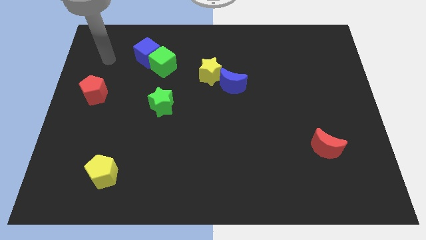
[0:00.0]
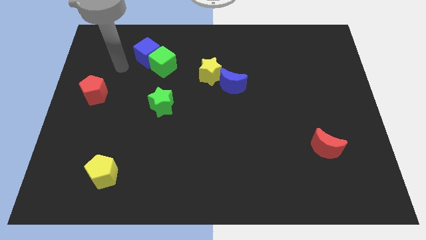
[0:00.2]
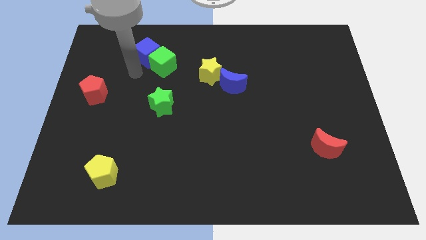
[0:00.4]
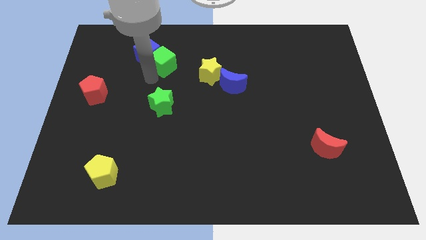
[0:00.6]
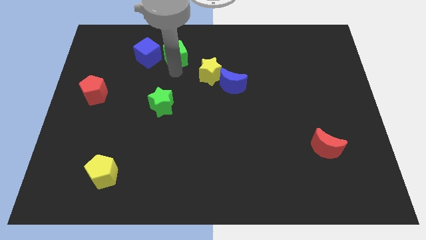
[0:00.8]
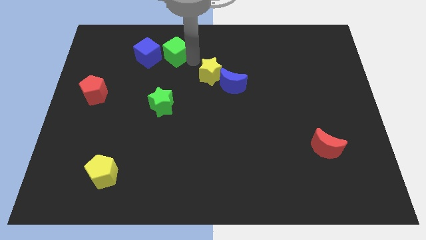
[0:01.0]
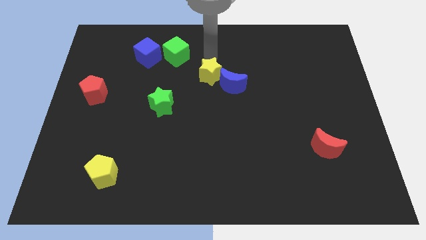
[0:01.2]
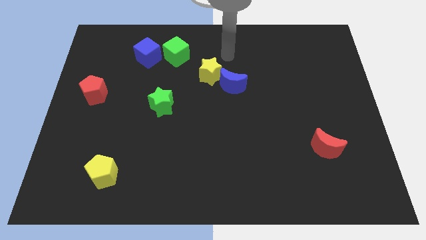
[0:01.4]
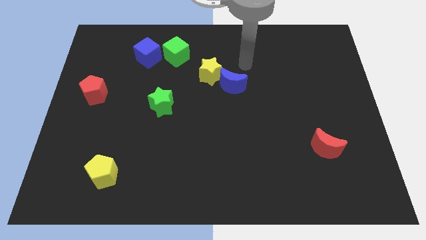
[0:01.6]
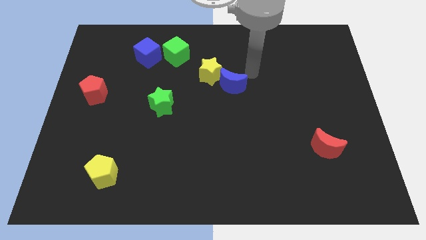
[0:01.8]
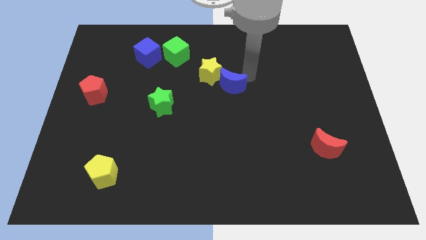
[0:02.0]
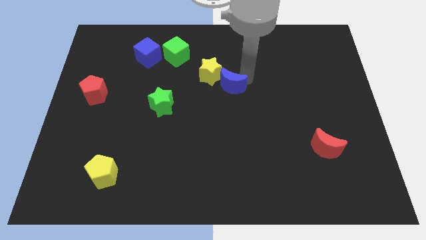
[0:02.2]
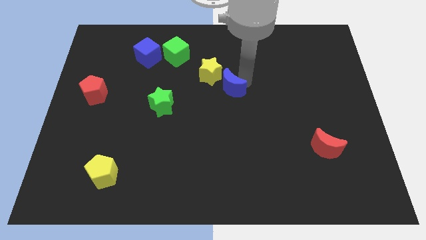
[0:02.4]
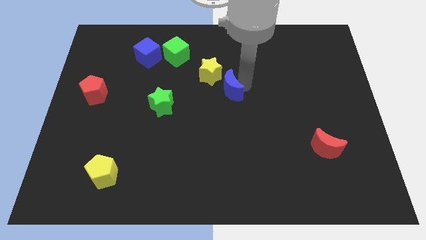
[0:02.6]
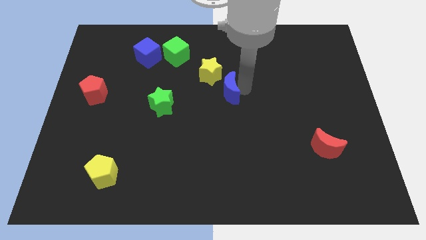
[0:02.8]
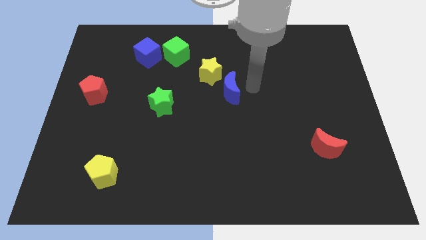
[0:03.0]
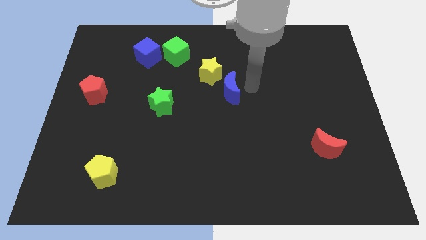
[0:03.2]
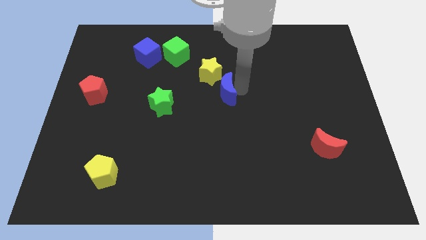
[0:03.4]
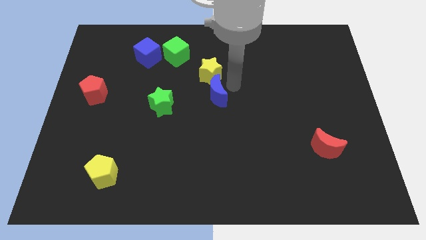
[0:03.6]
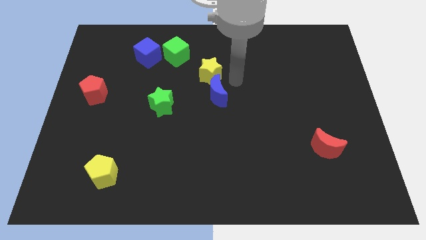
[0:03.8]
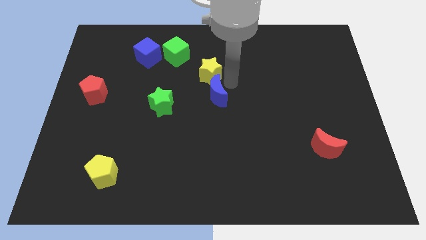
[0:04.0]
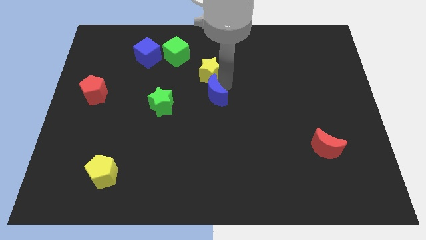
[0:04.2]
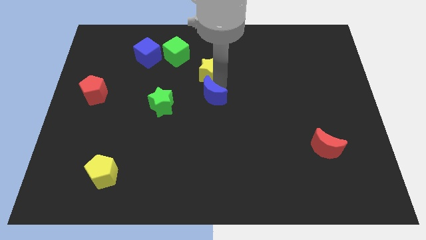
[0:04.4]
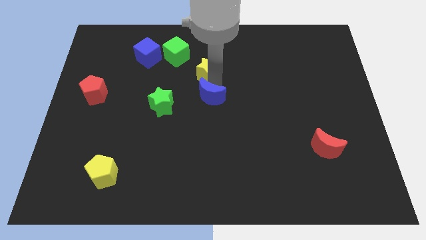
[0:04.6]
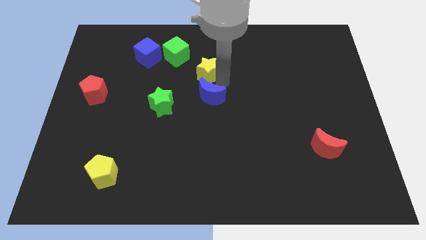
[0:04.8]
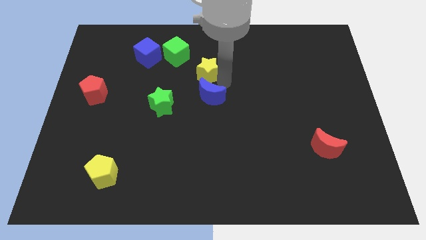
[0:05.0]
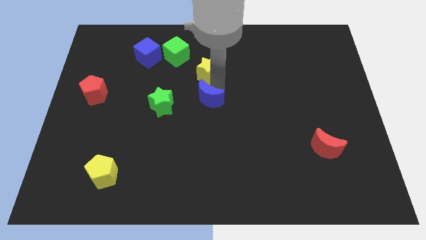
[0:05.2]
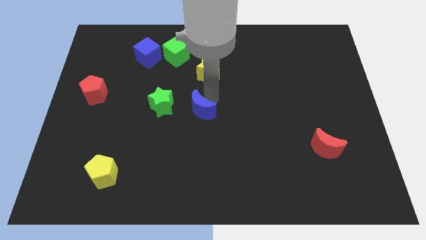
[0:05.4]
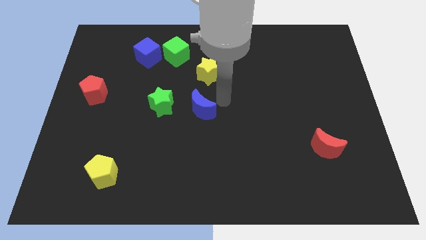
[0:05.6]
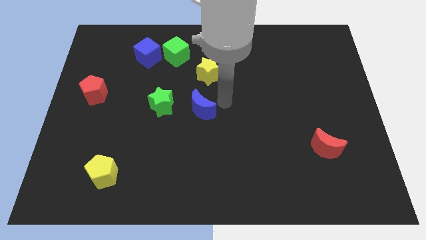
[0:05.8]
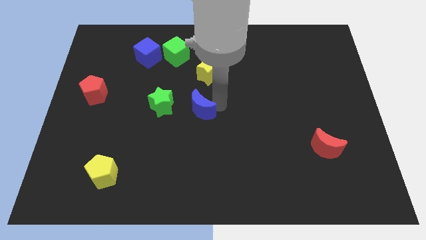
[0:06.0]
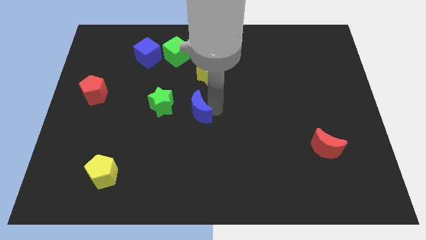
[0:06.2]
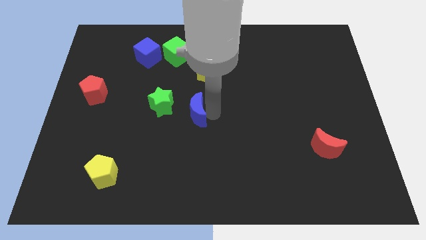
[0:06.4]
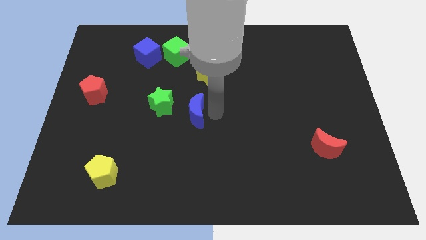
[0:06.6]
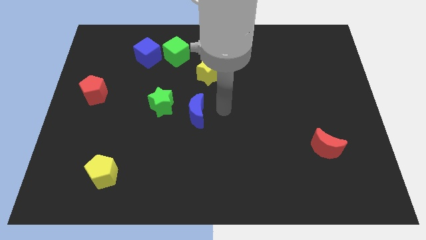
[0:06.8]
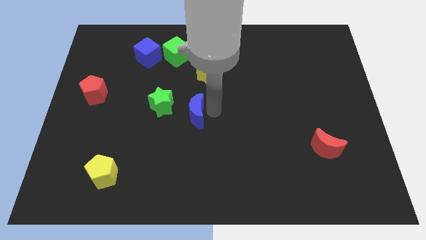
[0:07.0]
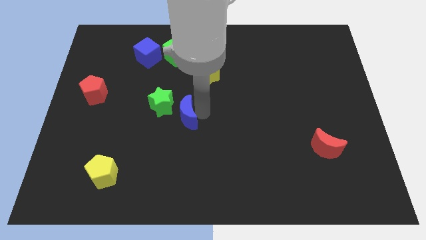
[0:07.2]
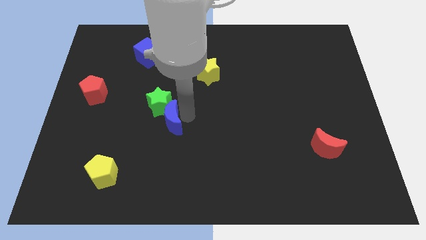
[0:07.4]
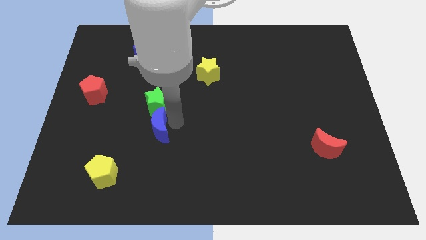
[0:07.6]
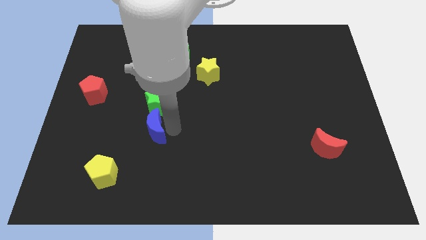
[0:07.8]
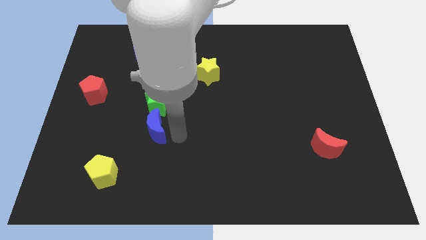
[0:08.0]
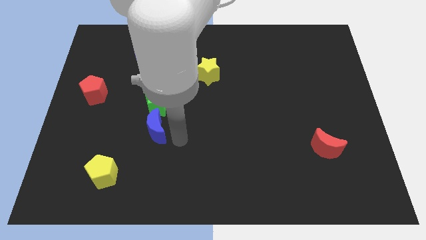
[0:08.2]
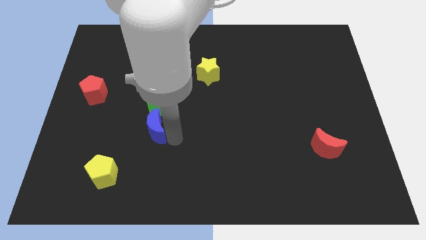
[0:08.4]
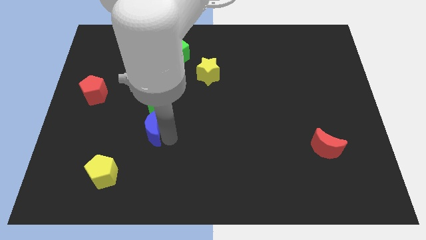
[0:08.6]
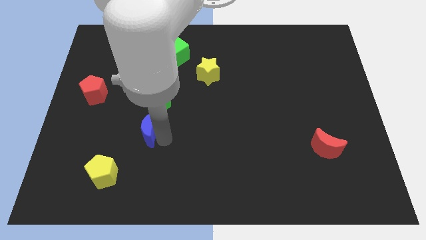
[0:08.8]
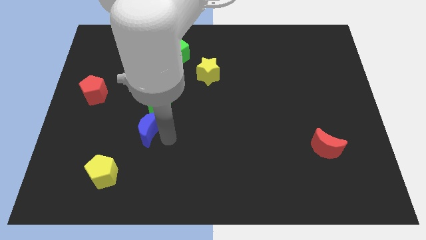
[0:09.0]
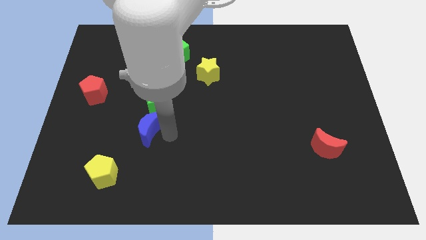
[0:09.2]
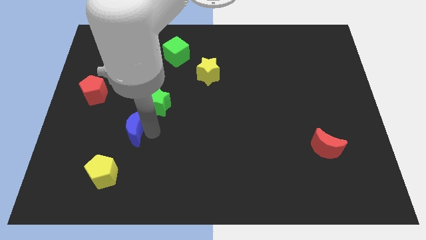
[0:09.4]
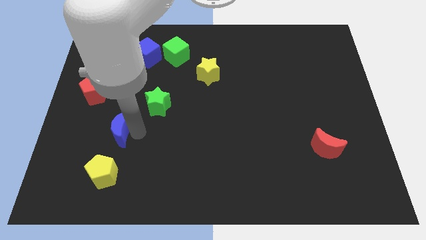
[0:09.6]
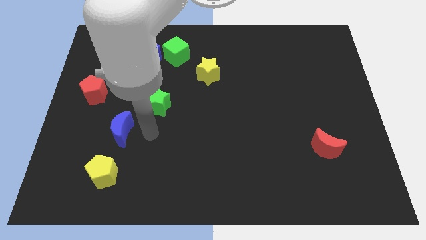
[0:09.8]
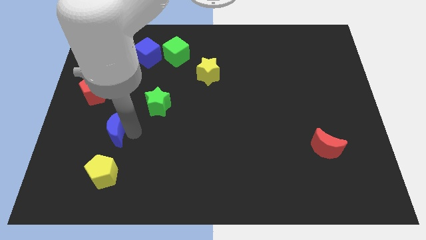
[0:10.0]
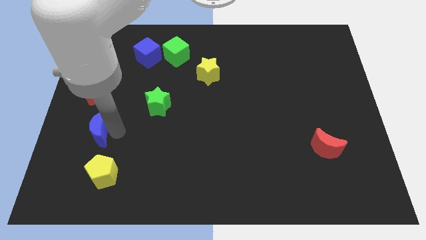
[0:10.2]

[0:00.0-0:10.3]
slide the blue moon to the bottom side of the red pentagon

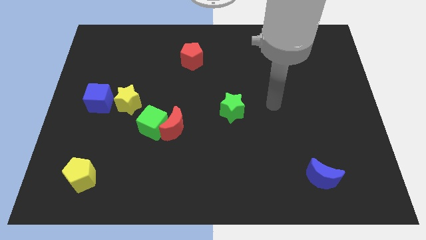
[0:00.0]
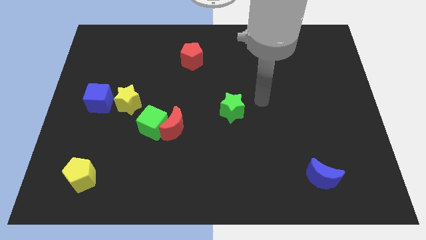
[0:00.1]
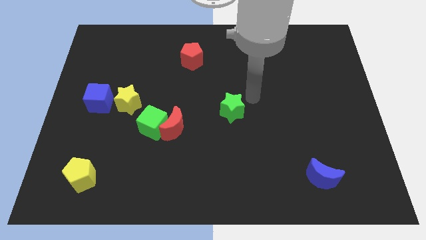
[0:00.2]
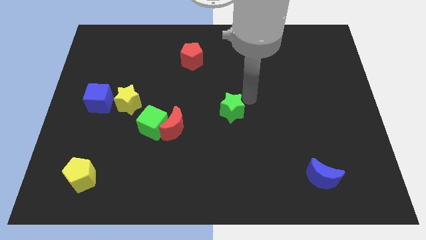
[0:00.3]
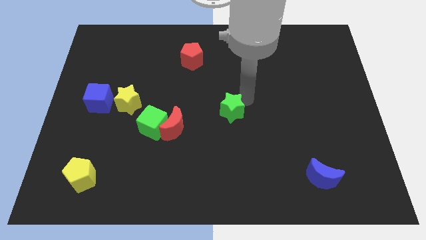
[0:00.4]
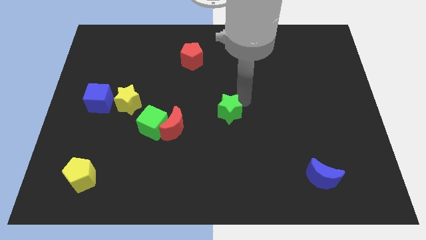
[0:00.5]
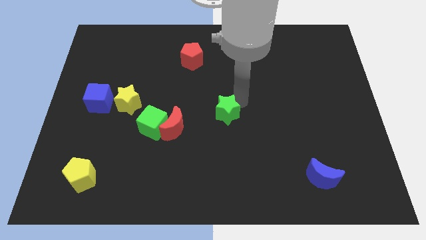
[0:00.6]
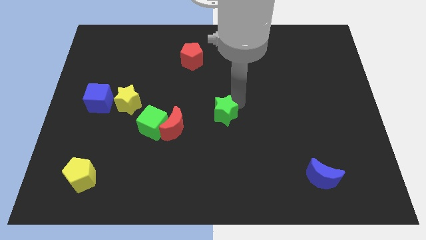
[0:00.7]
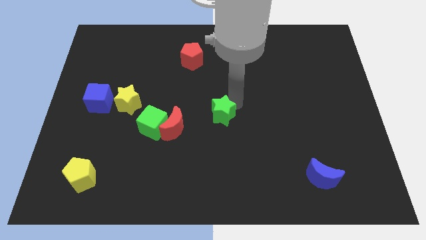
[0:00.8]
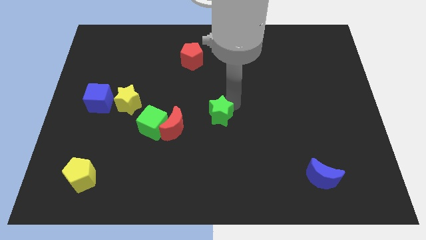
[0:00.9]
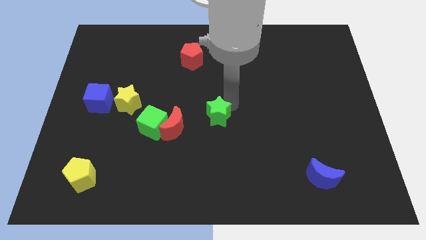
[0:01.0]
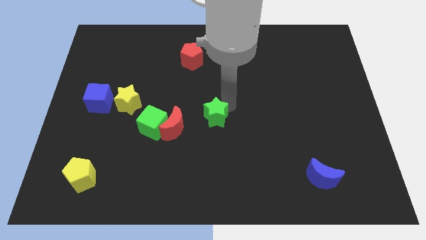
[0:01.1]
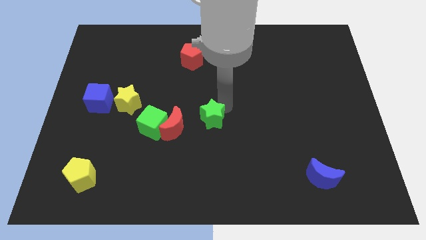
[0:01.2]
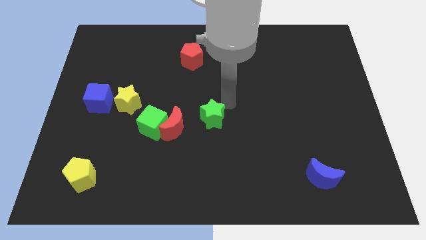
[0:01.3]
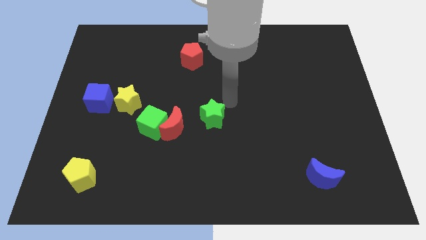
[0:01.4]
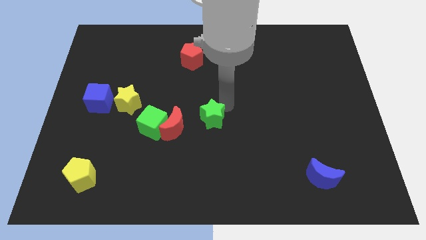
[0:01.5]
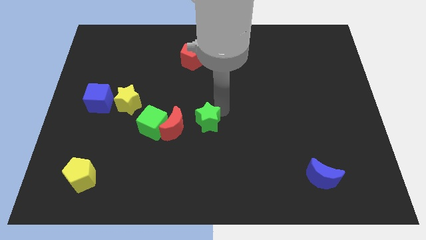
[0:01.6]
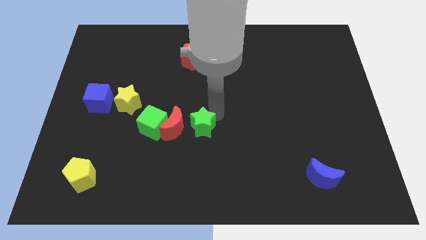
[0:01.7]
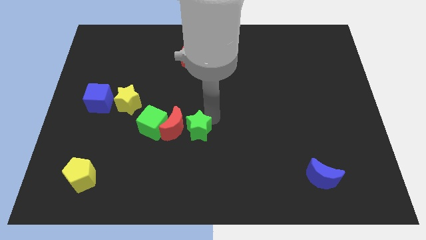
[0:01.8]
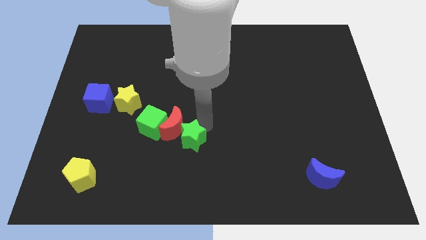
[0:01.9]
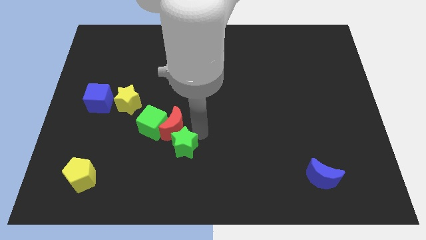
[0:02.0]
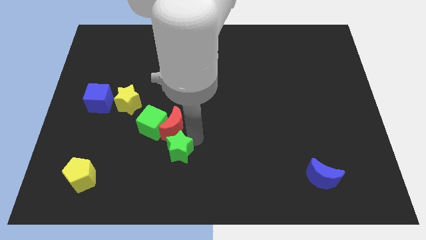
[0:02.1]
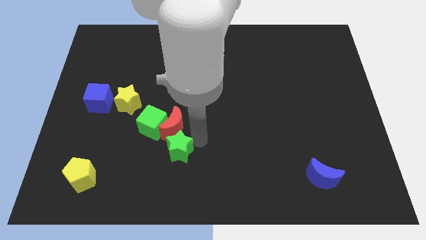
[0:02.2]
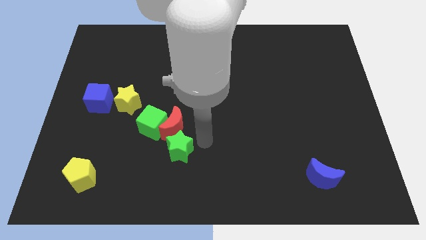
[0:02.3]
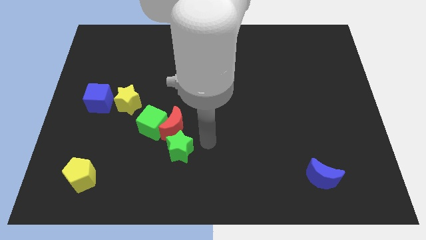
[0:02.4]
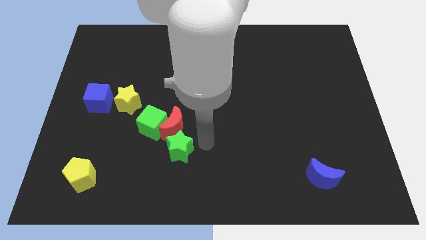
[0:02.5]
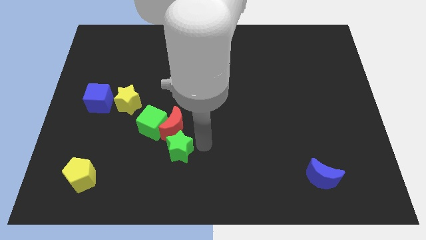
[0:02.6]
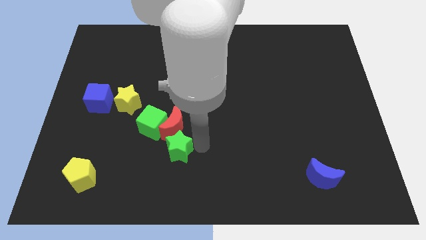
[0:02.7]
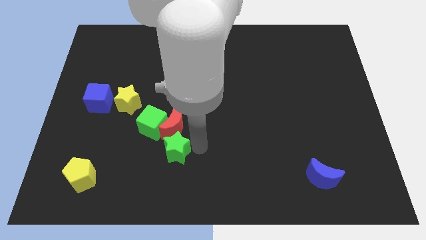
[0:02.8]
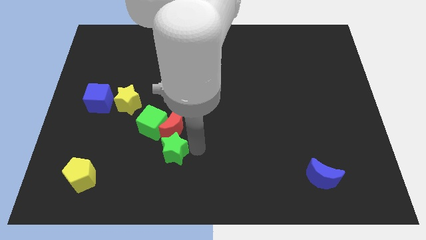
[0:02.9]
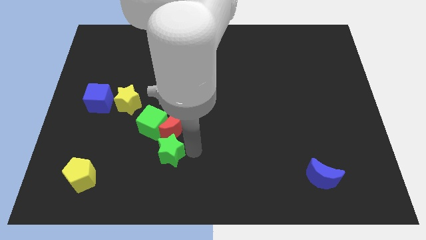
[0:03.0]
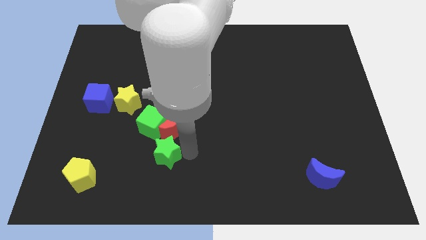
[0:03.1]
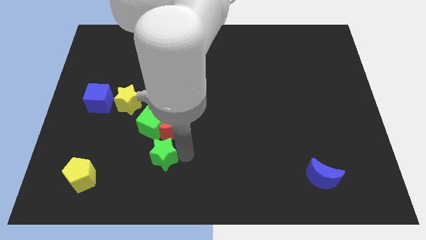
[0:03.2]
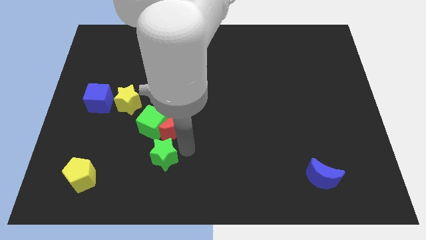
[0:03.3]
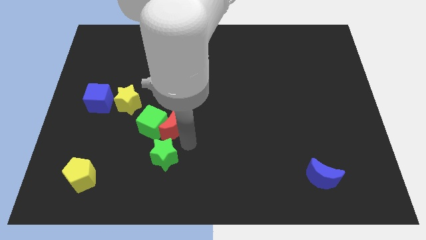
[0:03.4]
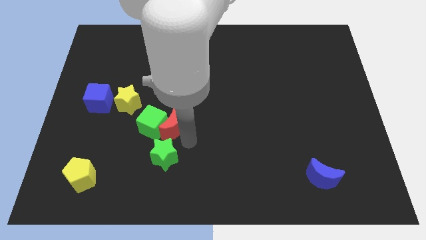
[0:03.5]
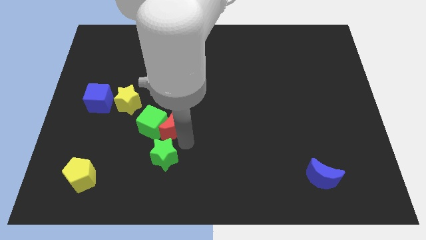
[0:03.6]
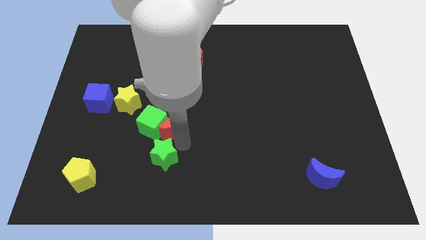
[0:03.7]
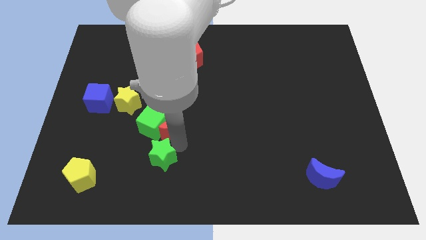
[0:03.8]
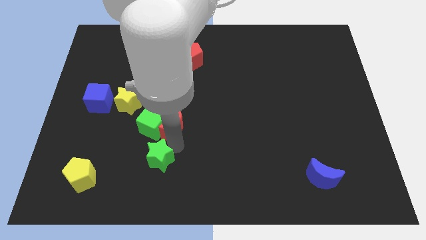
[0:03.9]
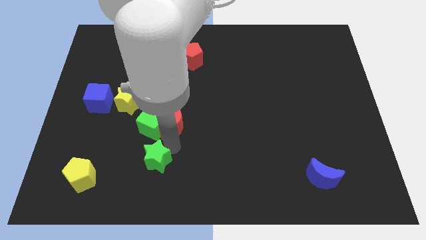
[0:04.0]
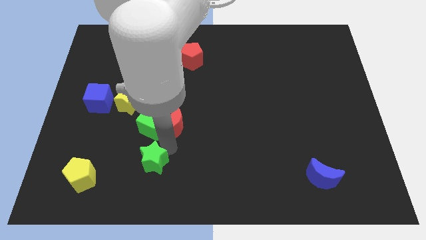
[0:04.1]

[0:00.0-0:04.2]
put the green star just right of the yellow pentagon
